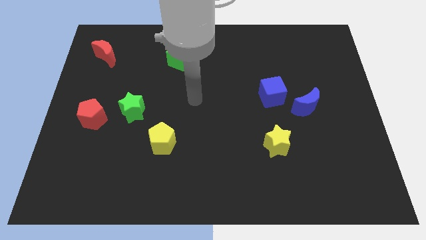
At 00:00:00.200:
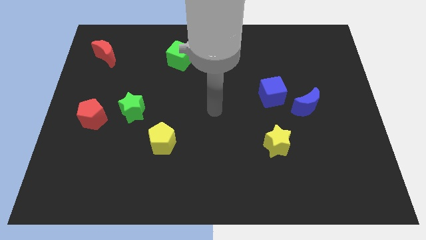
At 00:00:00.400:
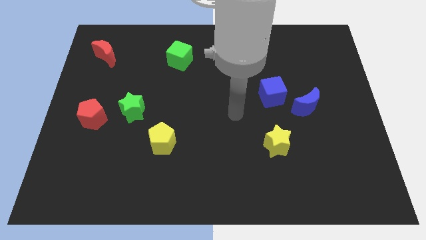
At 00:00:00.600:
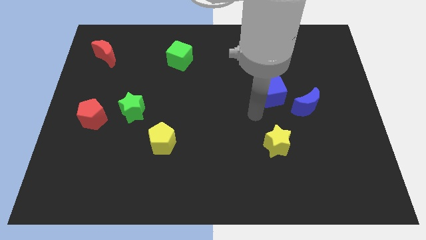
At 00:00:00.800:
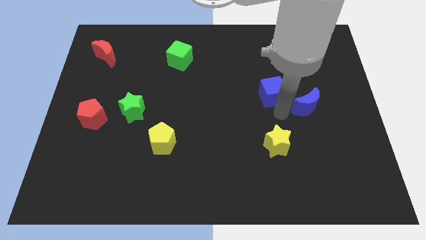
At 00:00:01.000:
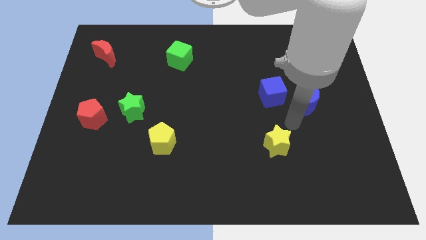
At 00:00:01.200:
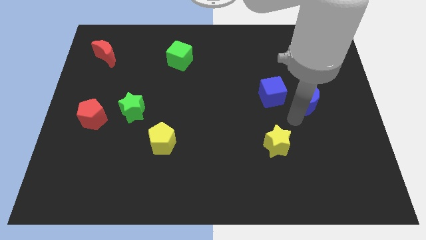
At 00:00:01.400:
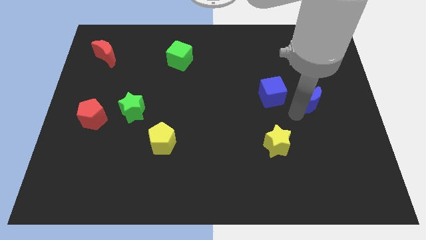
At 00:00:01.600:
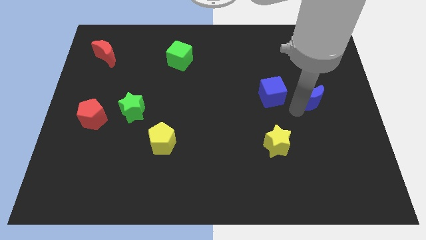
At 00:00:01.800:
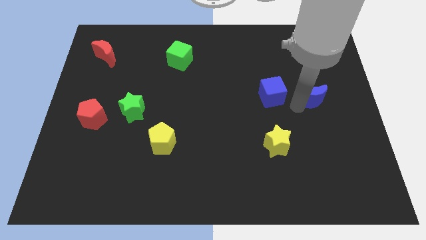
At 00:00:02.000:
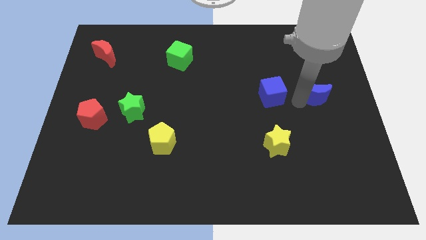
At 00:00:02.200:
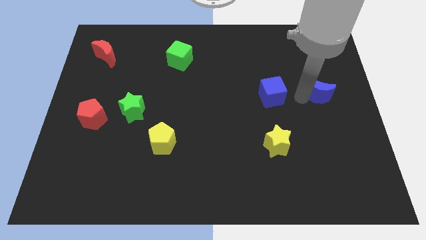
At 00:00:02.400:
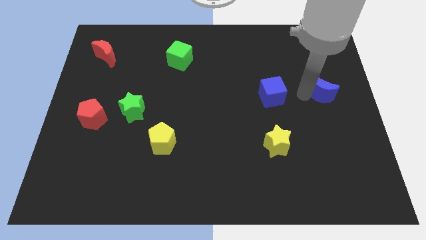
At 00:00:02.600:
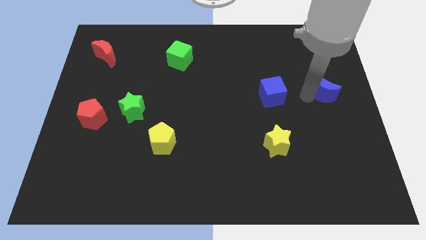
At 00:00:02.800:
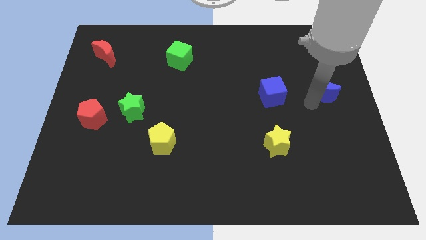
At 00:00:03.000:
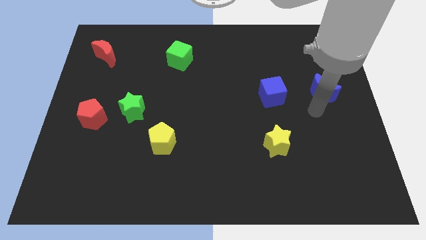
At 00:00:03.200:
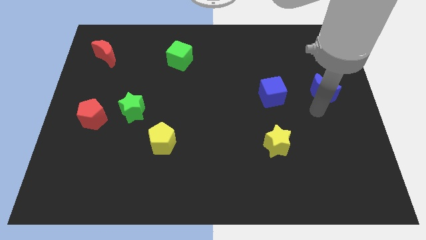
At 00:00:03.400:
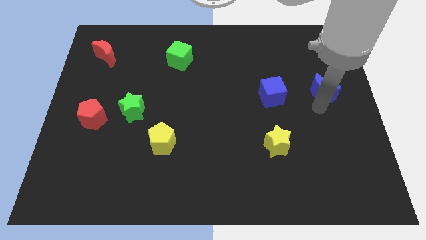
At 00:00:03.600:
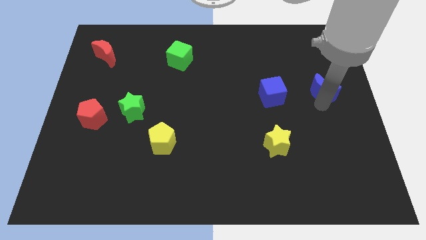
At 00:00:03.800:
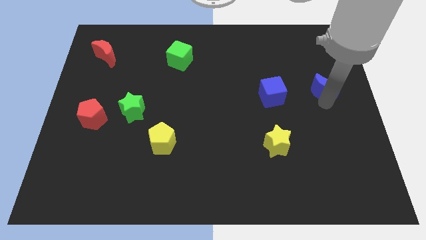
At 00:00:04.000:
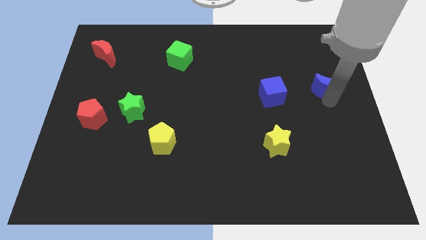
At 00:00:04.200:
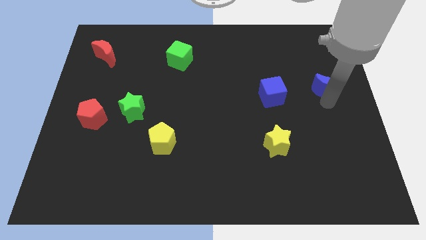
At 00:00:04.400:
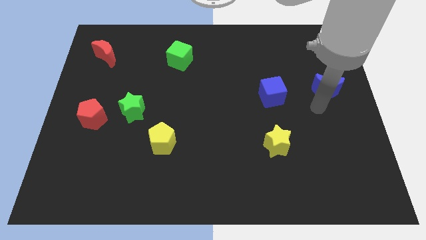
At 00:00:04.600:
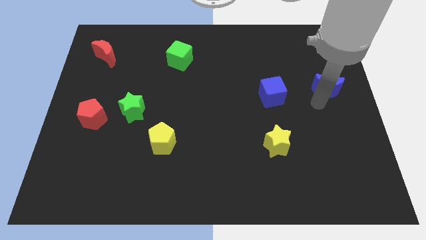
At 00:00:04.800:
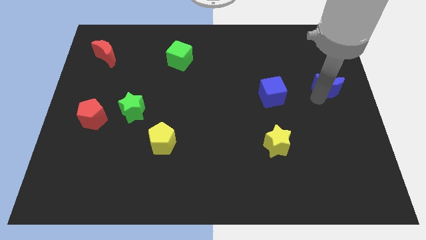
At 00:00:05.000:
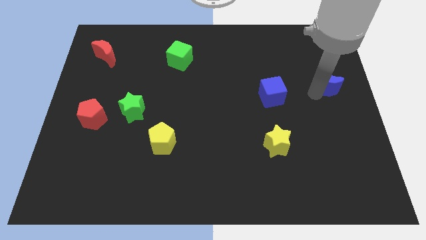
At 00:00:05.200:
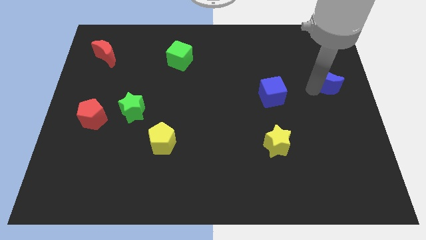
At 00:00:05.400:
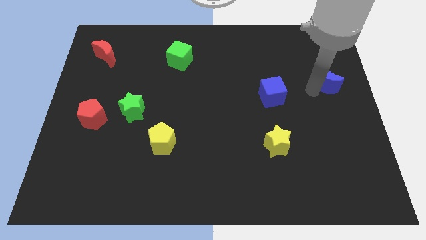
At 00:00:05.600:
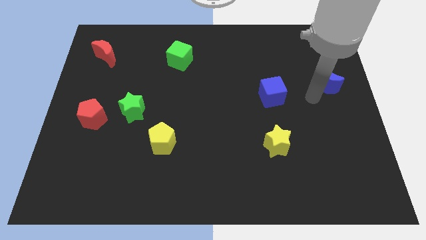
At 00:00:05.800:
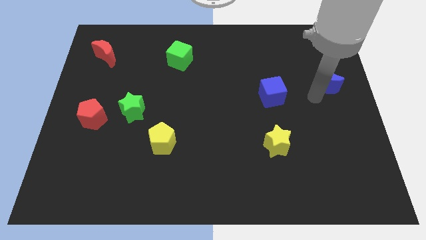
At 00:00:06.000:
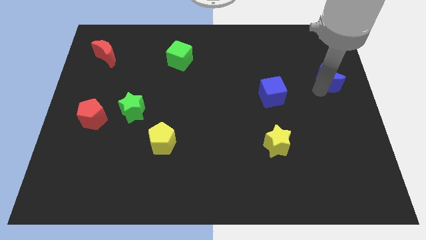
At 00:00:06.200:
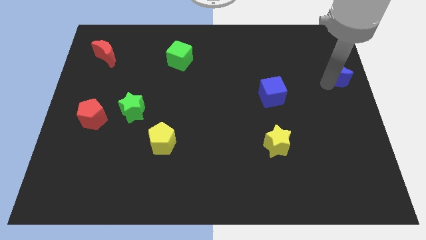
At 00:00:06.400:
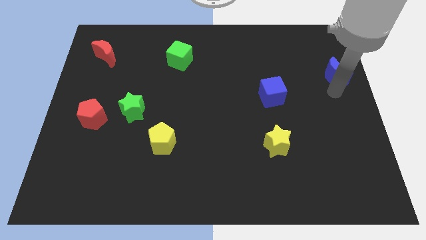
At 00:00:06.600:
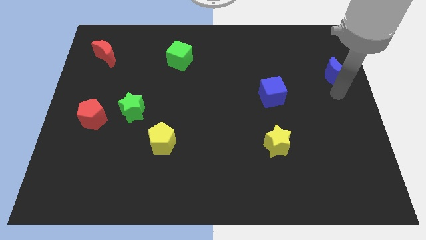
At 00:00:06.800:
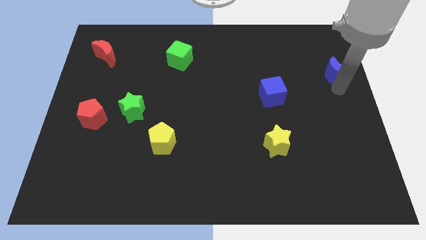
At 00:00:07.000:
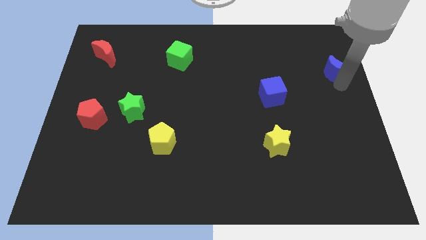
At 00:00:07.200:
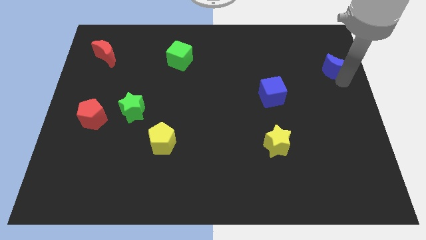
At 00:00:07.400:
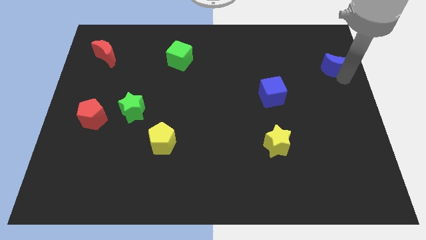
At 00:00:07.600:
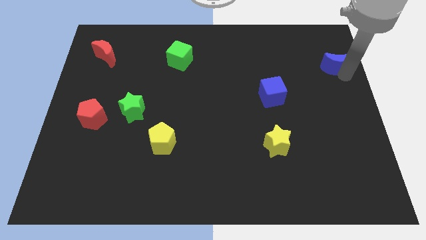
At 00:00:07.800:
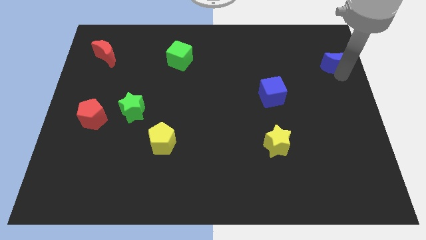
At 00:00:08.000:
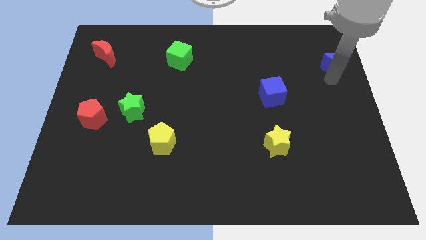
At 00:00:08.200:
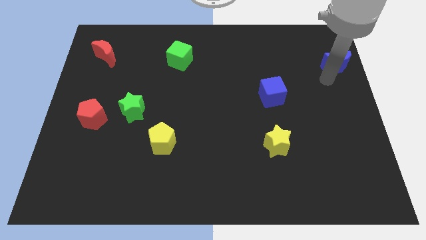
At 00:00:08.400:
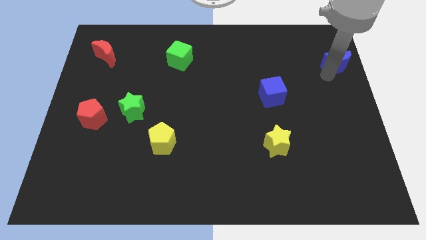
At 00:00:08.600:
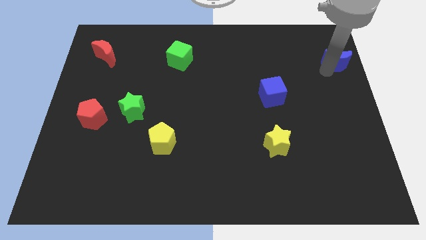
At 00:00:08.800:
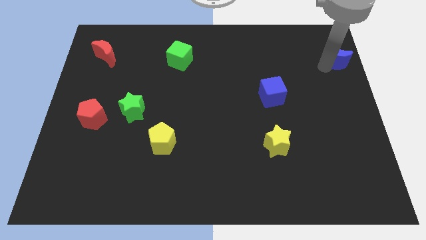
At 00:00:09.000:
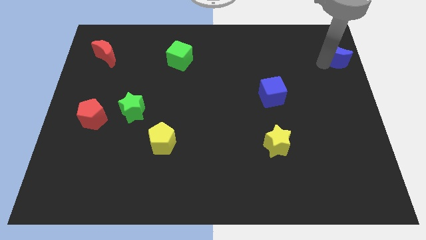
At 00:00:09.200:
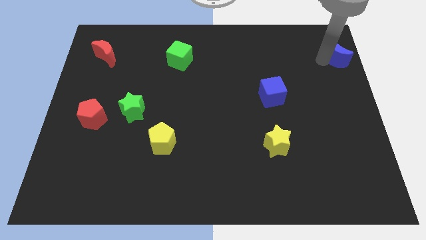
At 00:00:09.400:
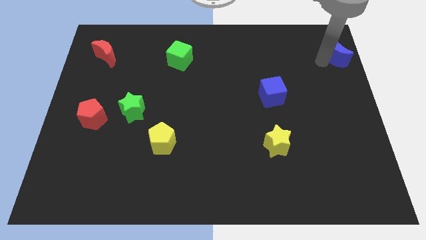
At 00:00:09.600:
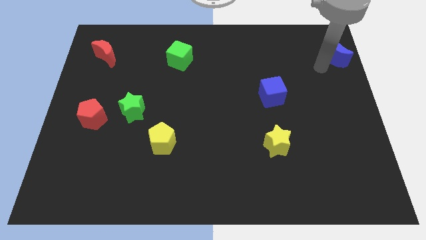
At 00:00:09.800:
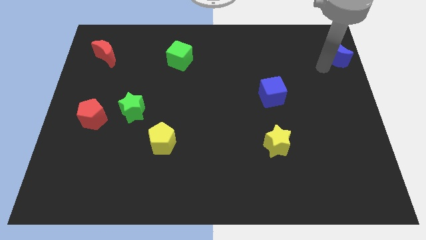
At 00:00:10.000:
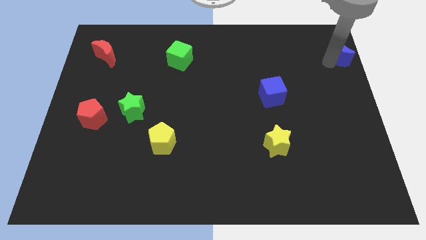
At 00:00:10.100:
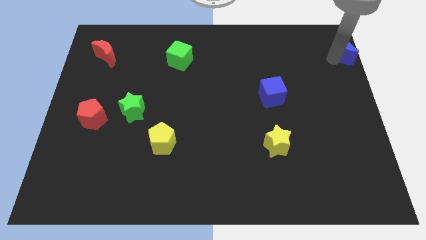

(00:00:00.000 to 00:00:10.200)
put the blue moon to the top right of the board
